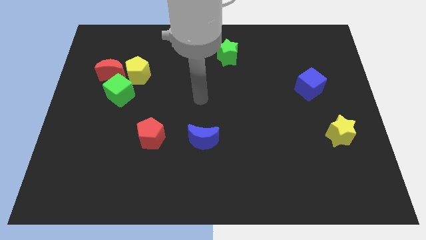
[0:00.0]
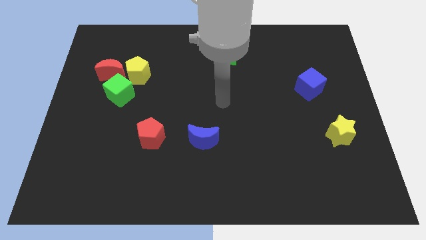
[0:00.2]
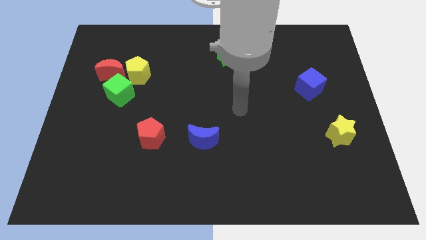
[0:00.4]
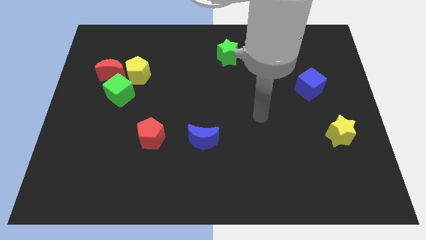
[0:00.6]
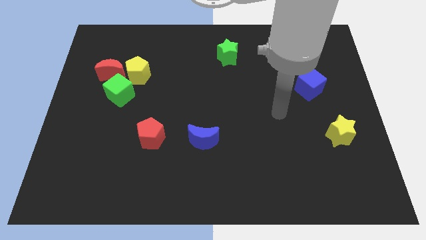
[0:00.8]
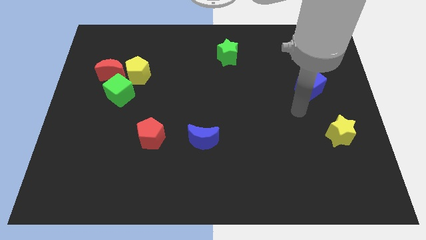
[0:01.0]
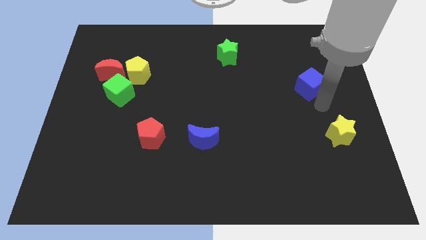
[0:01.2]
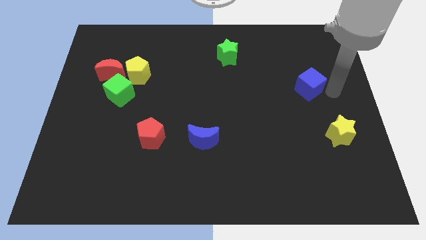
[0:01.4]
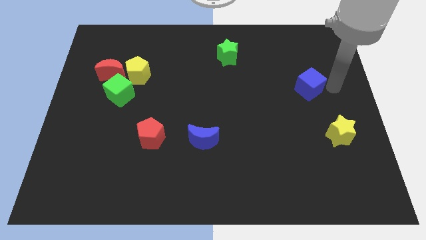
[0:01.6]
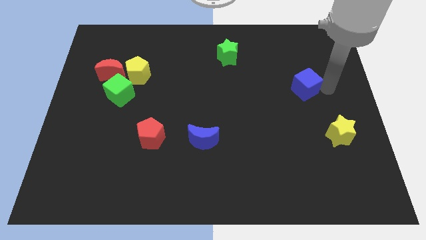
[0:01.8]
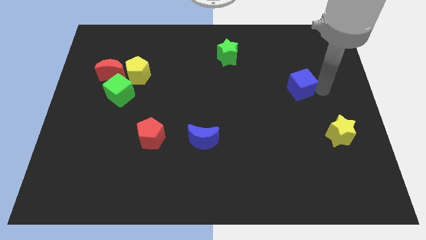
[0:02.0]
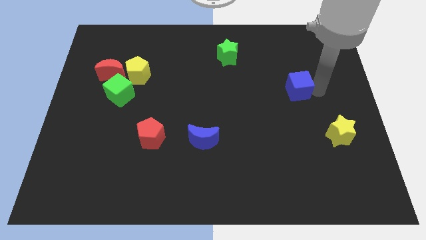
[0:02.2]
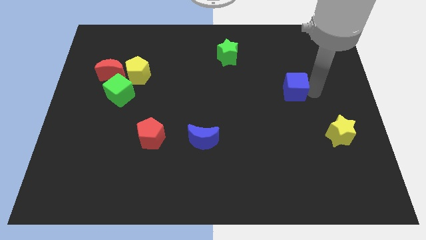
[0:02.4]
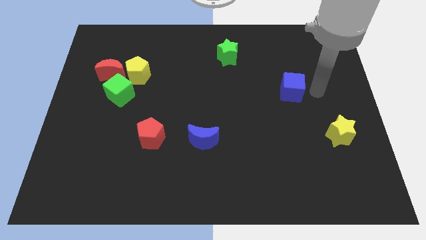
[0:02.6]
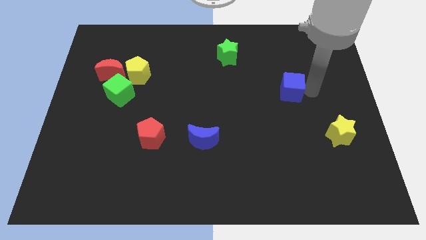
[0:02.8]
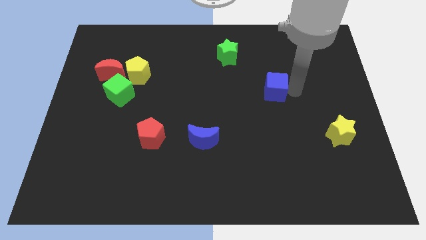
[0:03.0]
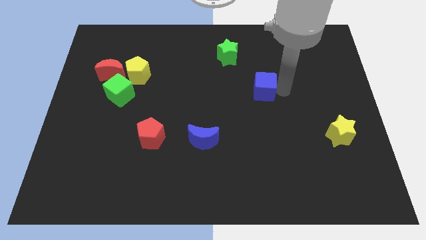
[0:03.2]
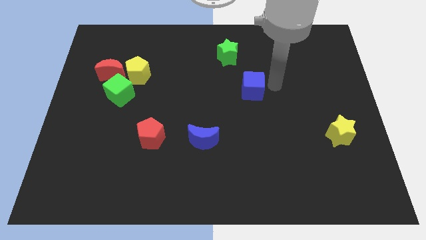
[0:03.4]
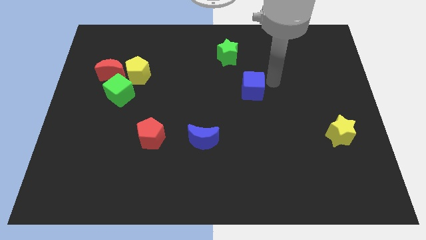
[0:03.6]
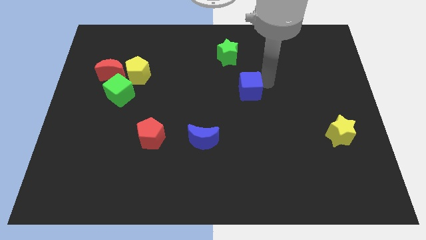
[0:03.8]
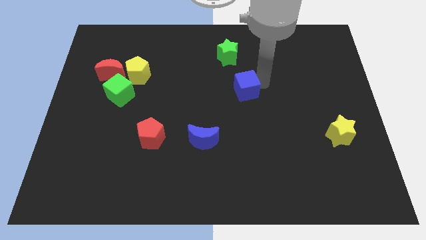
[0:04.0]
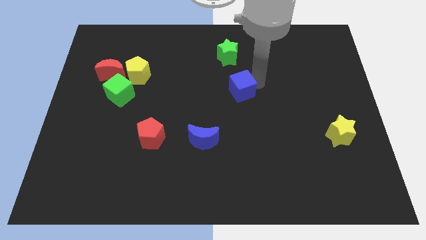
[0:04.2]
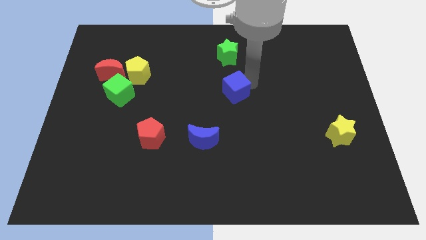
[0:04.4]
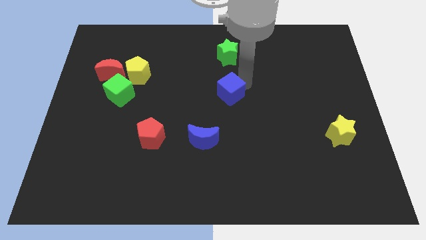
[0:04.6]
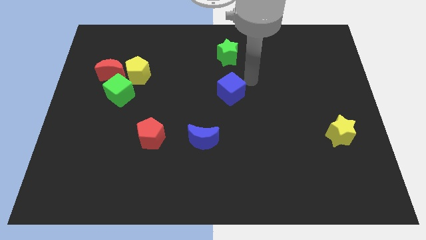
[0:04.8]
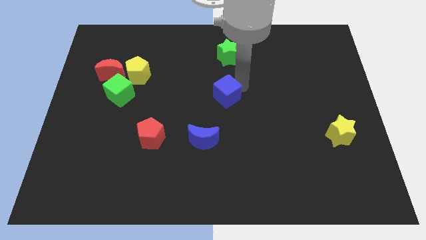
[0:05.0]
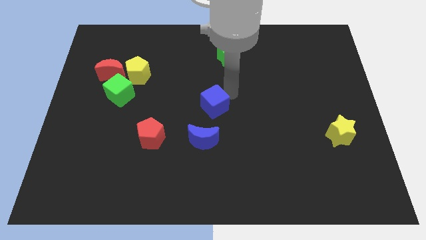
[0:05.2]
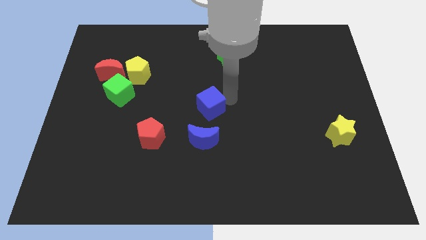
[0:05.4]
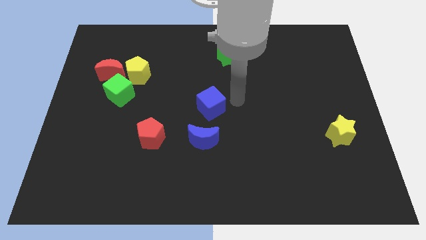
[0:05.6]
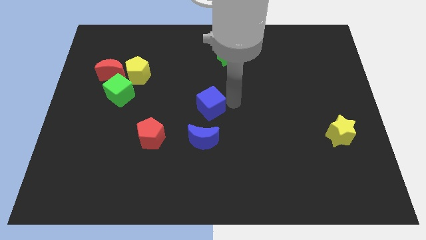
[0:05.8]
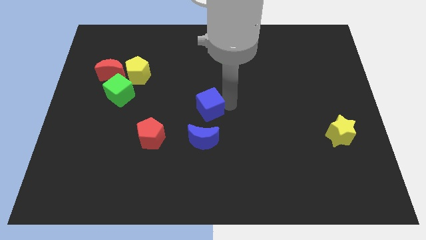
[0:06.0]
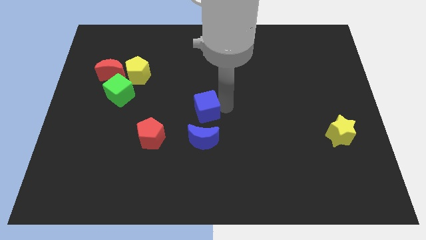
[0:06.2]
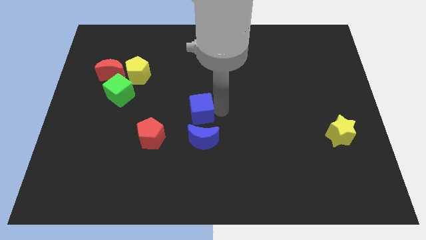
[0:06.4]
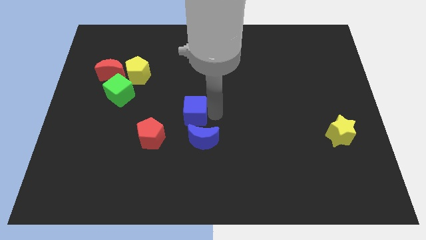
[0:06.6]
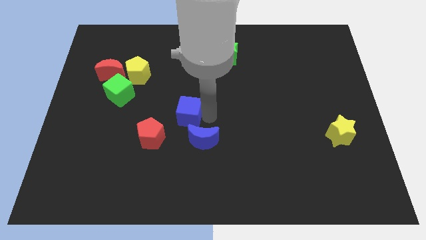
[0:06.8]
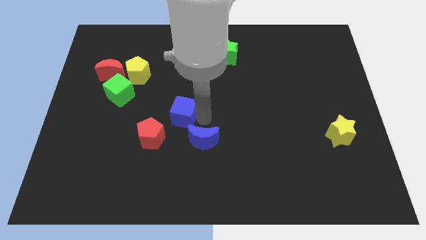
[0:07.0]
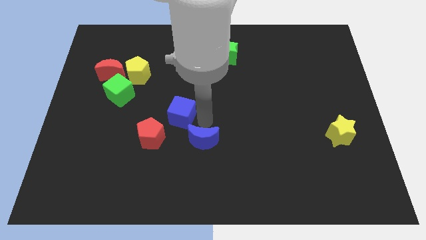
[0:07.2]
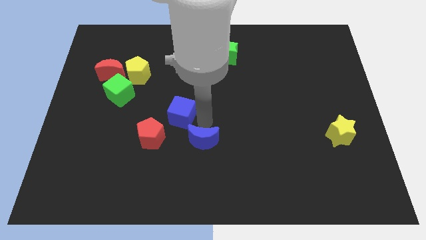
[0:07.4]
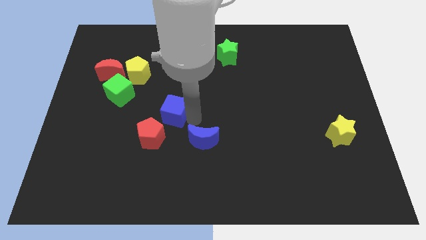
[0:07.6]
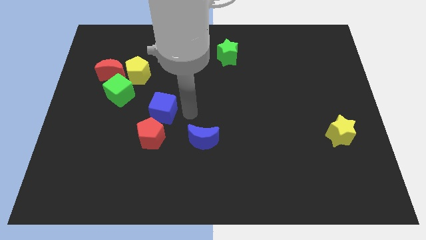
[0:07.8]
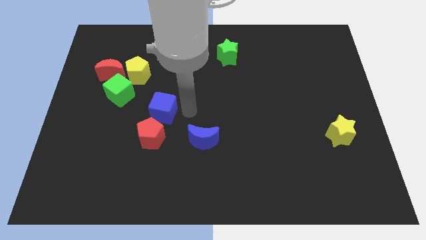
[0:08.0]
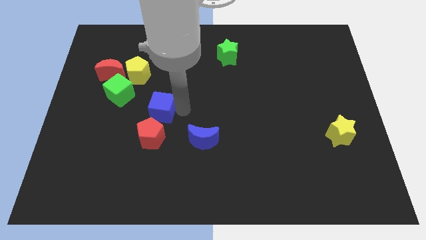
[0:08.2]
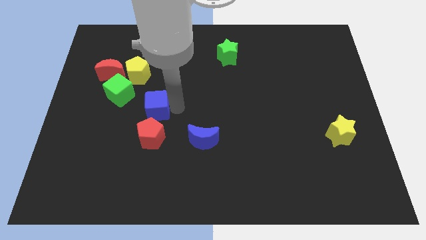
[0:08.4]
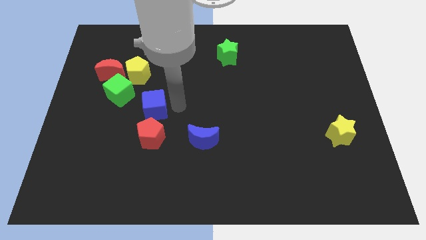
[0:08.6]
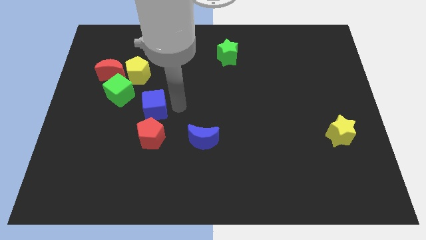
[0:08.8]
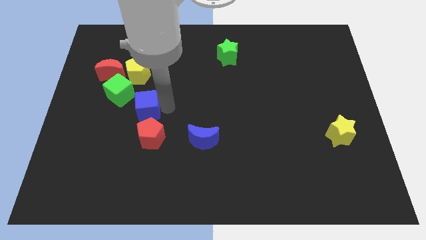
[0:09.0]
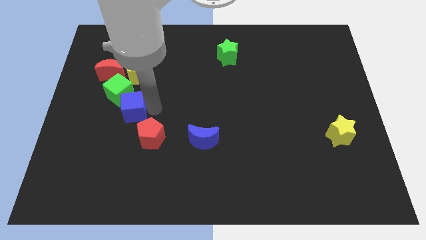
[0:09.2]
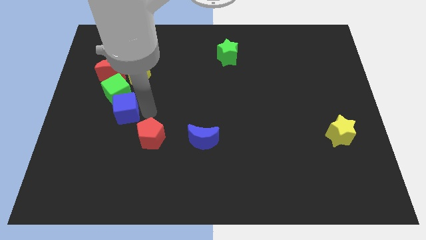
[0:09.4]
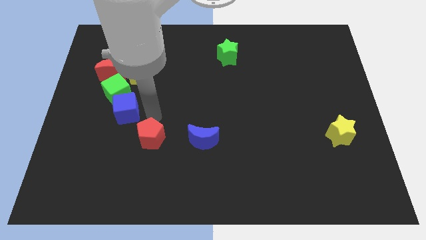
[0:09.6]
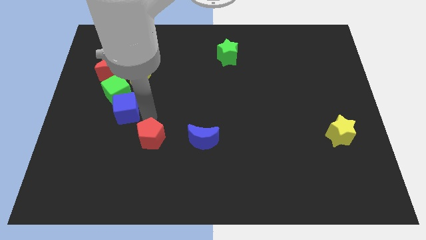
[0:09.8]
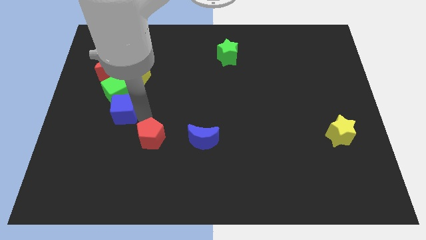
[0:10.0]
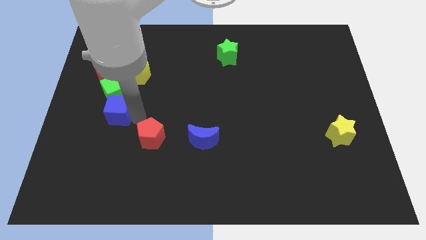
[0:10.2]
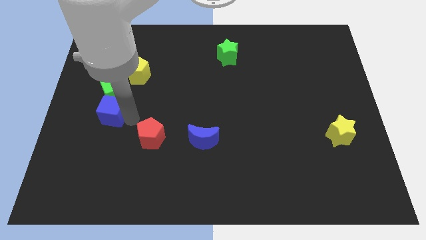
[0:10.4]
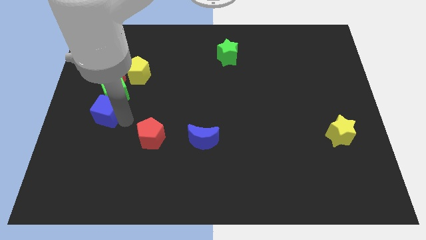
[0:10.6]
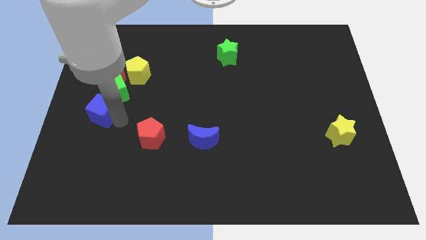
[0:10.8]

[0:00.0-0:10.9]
push the blue cube to the center left
